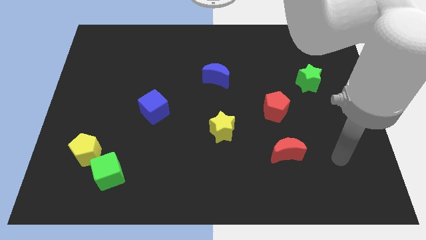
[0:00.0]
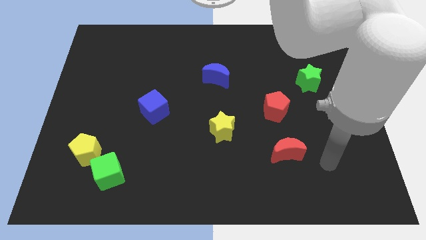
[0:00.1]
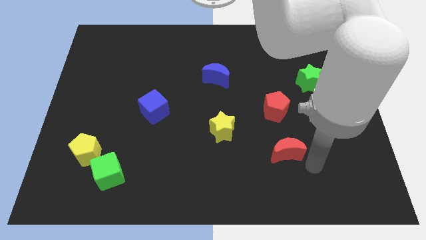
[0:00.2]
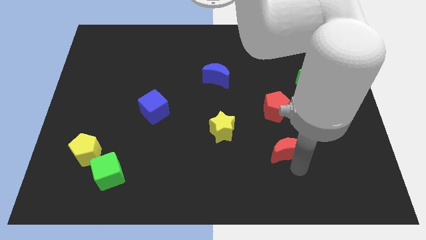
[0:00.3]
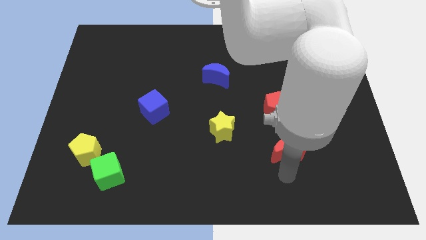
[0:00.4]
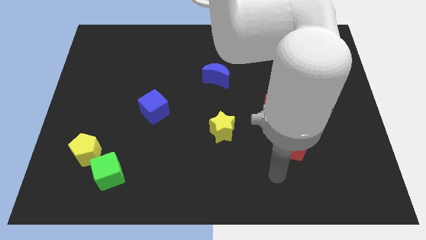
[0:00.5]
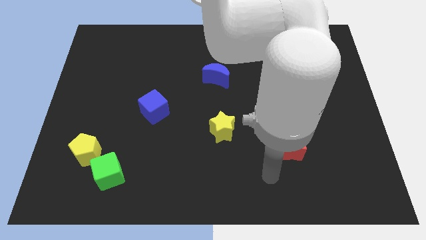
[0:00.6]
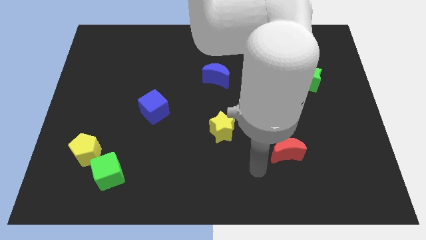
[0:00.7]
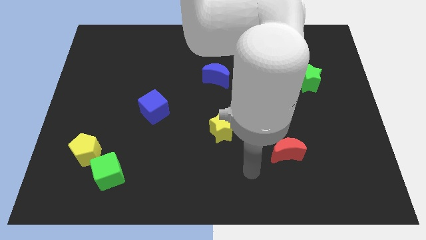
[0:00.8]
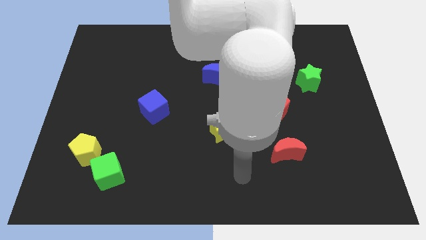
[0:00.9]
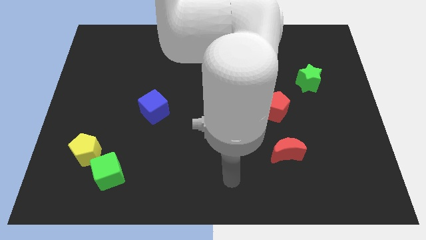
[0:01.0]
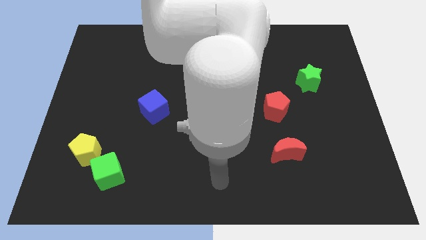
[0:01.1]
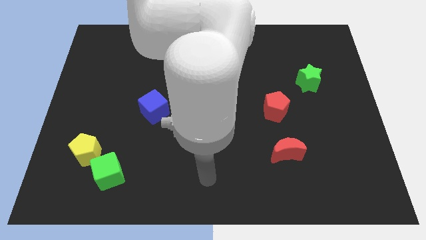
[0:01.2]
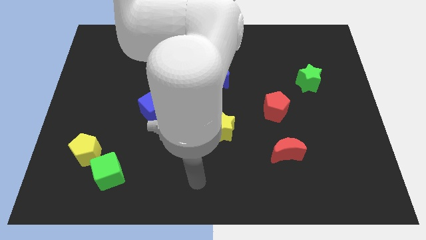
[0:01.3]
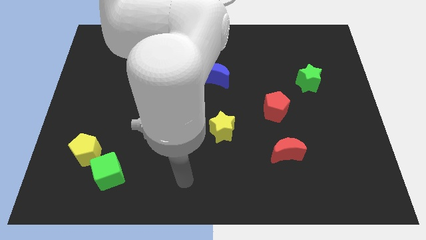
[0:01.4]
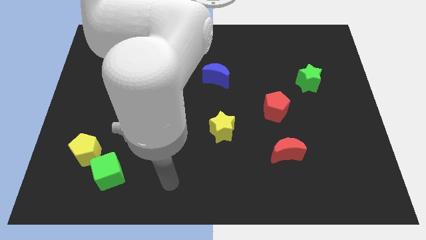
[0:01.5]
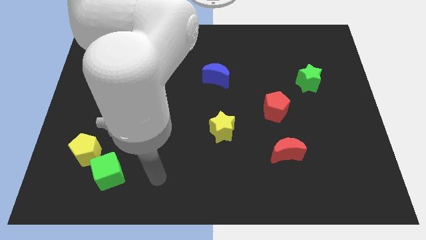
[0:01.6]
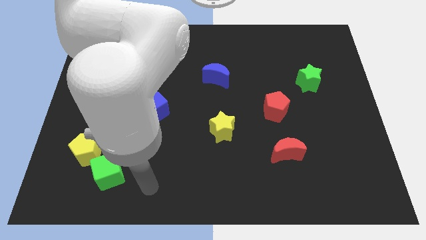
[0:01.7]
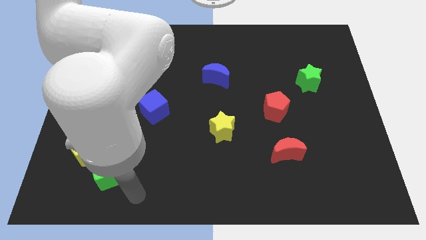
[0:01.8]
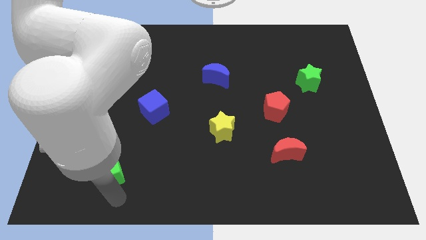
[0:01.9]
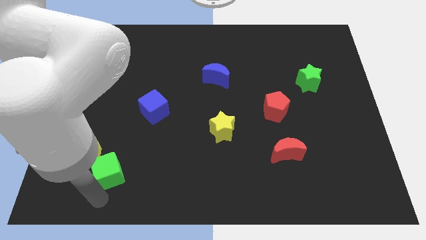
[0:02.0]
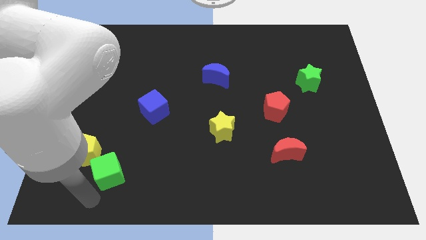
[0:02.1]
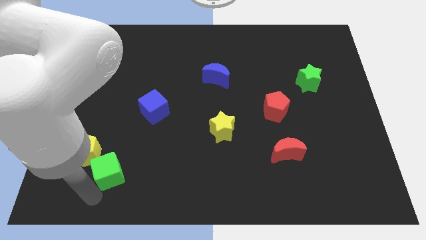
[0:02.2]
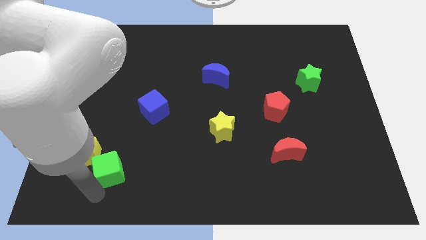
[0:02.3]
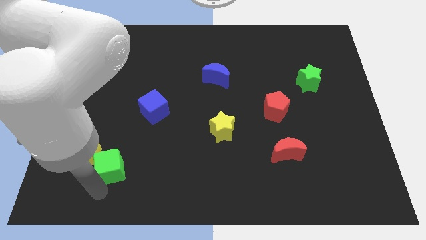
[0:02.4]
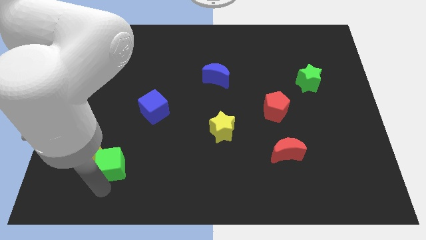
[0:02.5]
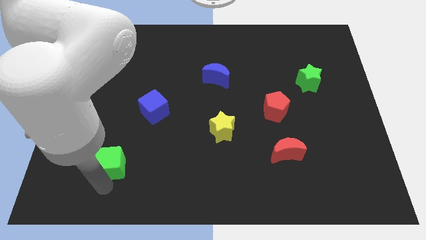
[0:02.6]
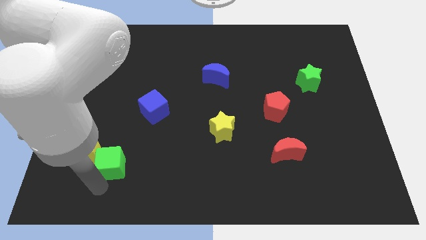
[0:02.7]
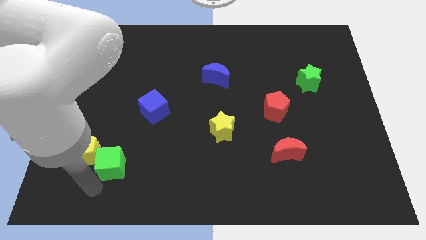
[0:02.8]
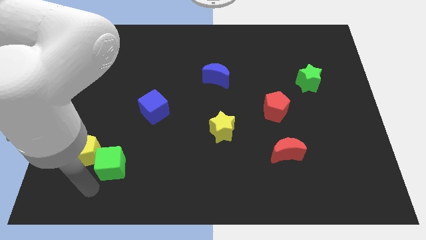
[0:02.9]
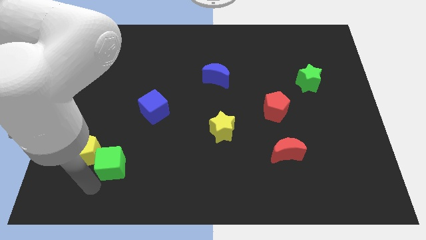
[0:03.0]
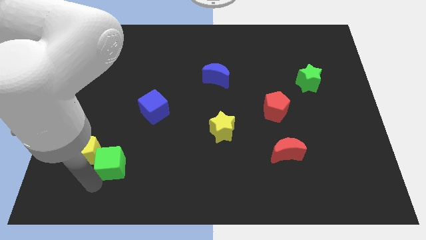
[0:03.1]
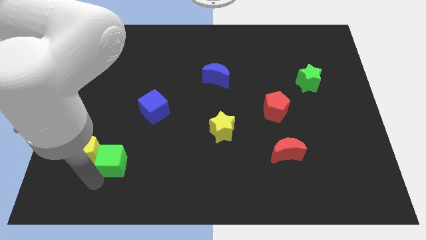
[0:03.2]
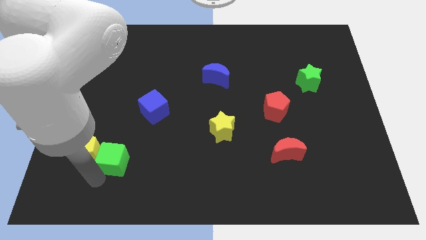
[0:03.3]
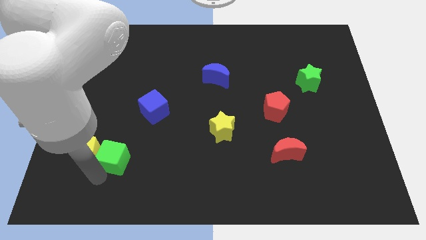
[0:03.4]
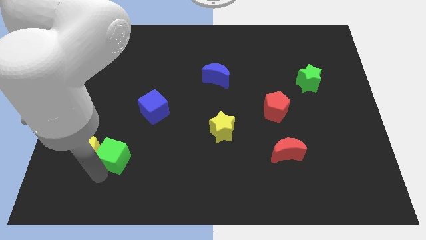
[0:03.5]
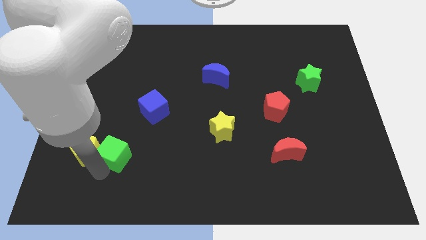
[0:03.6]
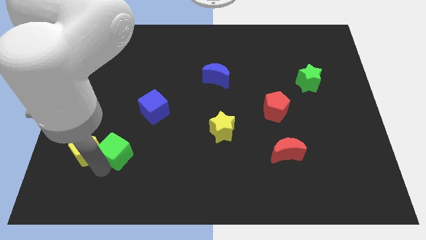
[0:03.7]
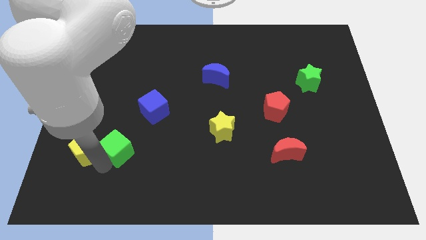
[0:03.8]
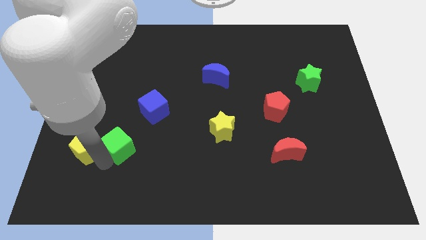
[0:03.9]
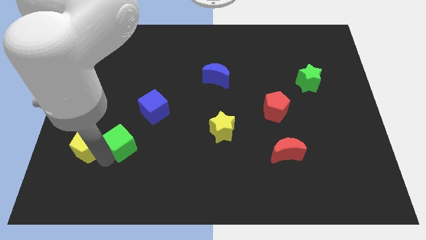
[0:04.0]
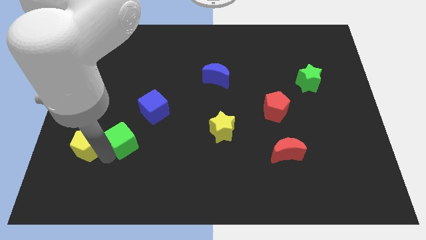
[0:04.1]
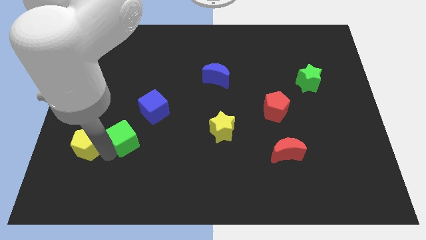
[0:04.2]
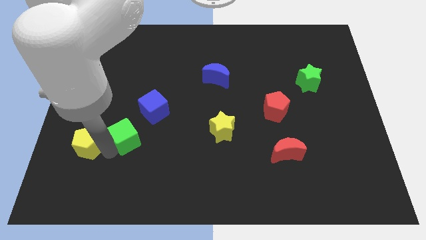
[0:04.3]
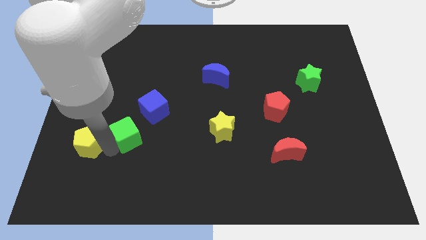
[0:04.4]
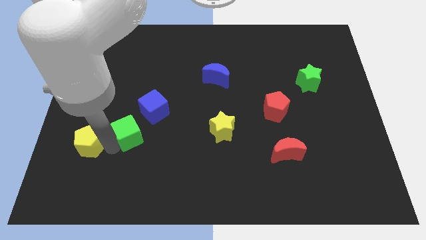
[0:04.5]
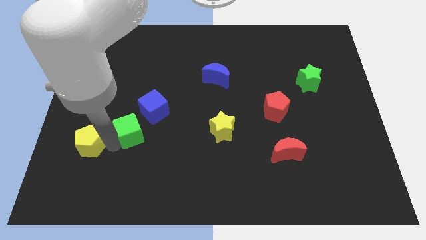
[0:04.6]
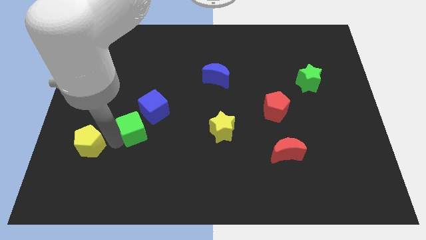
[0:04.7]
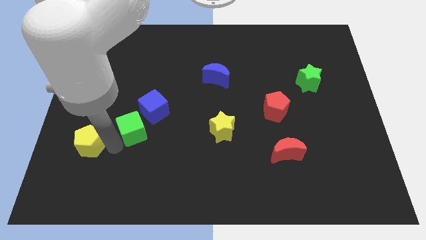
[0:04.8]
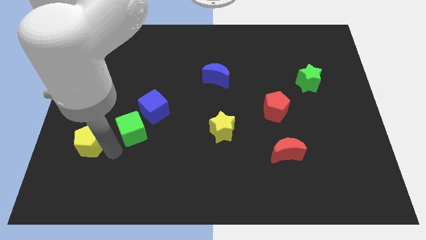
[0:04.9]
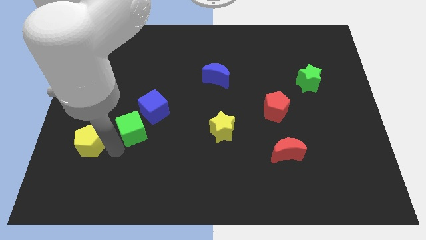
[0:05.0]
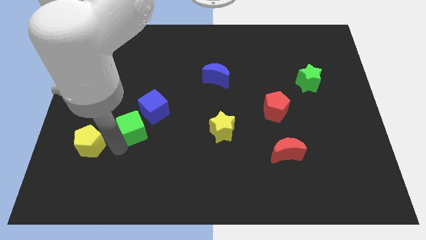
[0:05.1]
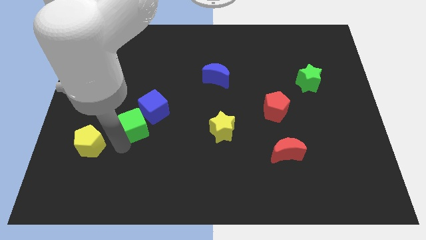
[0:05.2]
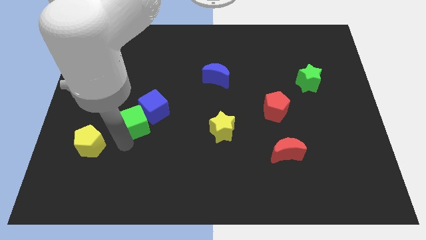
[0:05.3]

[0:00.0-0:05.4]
slide the green cube towards the blue cube

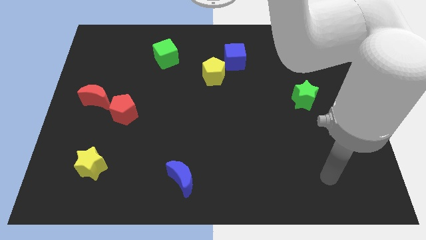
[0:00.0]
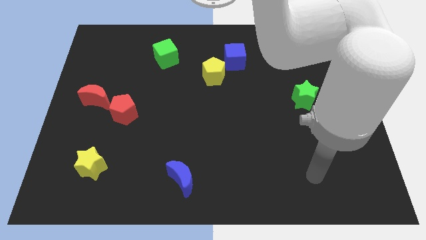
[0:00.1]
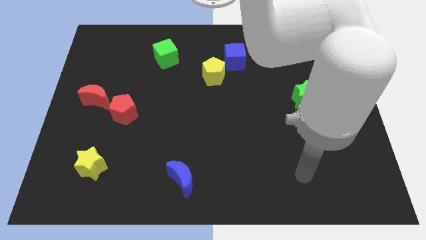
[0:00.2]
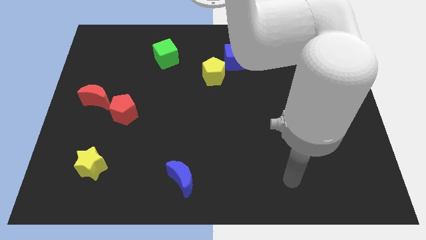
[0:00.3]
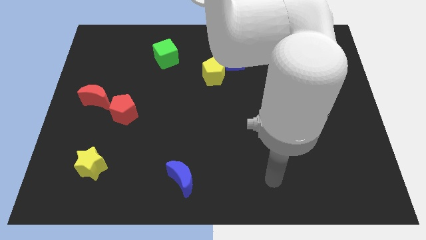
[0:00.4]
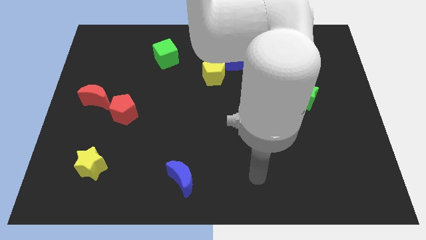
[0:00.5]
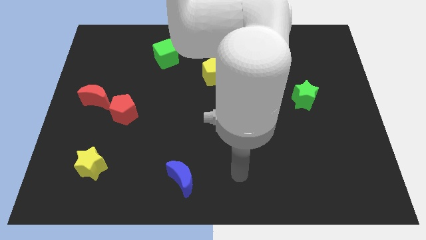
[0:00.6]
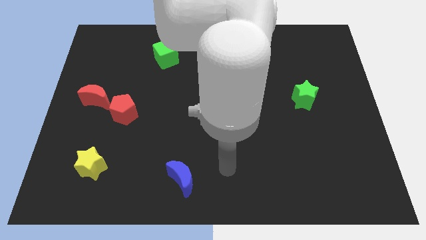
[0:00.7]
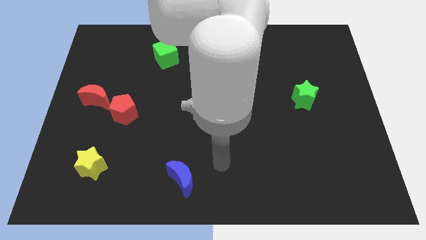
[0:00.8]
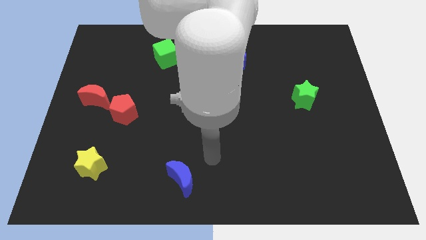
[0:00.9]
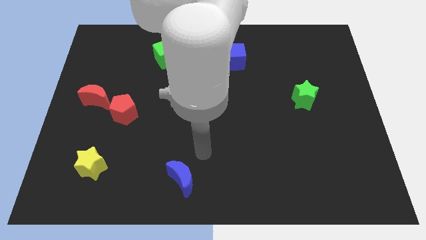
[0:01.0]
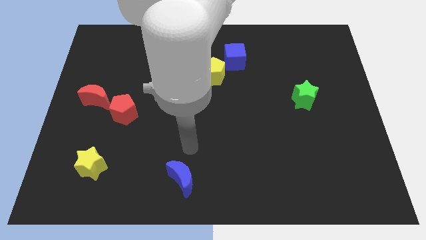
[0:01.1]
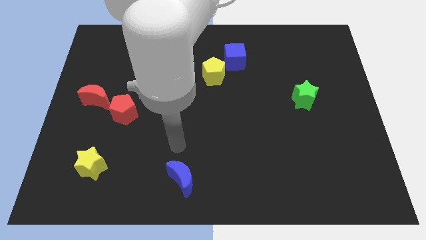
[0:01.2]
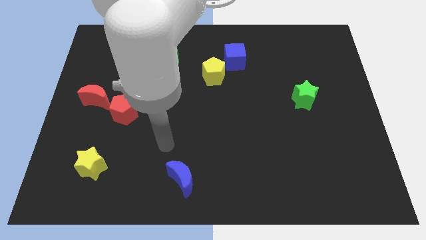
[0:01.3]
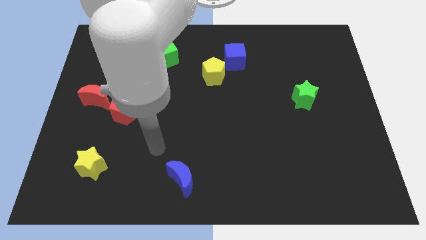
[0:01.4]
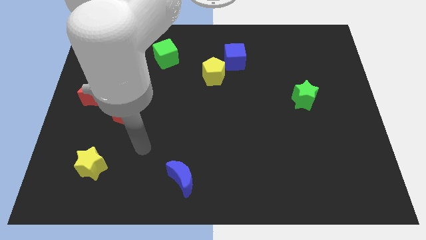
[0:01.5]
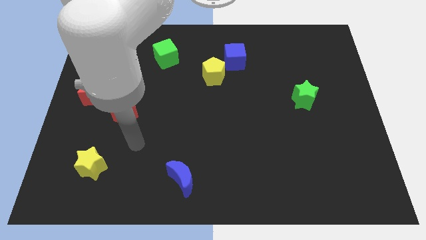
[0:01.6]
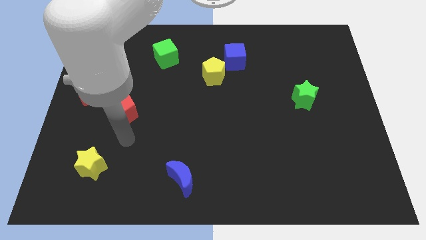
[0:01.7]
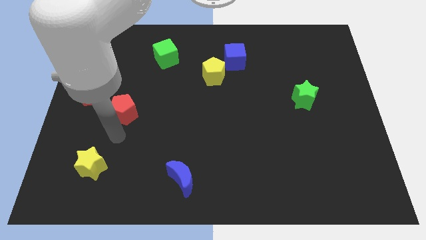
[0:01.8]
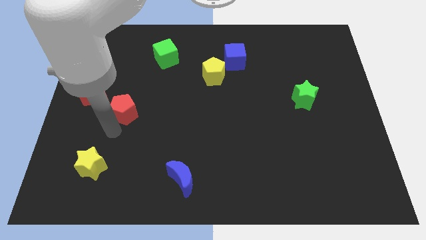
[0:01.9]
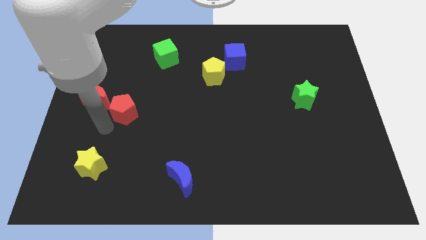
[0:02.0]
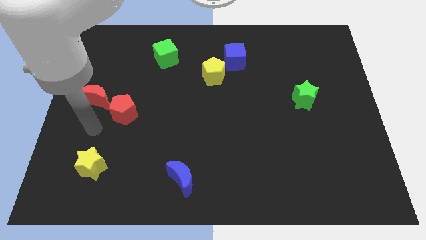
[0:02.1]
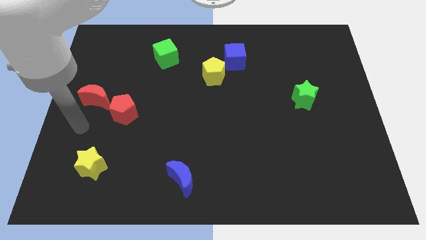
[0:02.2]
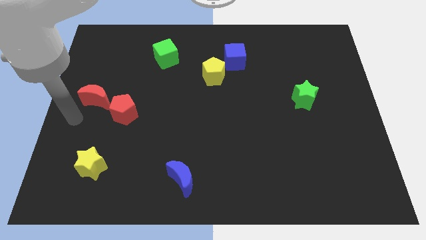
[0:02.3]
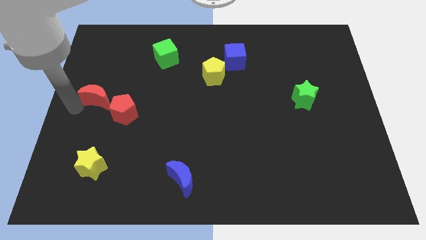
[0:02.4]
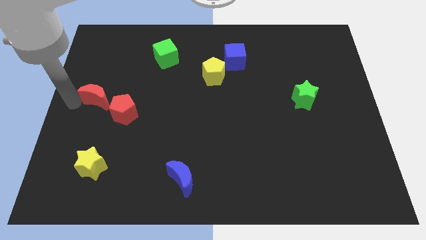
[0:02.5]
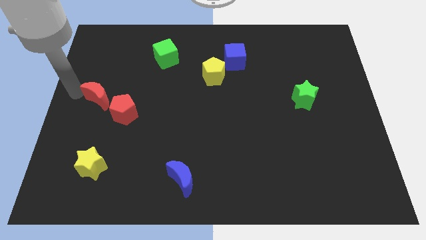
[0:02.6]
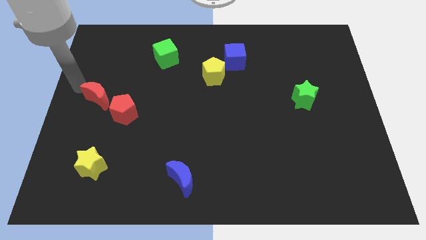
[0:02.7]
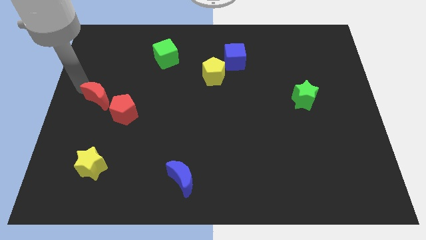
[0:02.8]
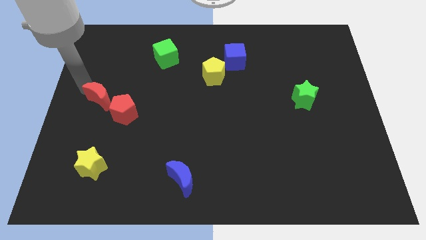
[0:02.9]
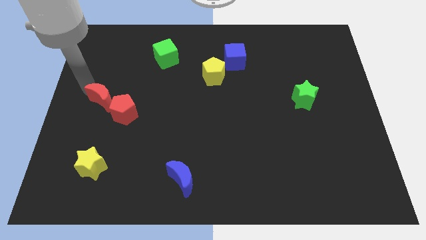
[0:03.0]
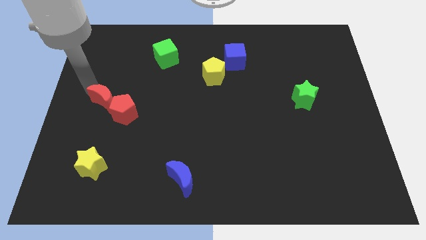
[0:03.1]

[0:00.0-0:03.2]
slide the red moon close to the red pentagon
